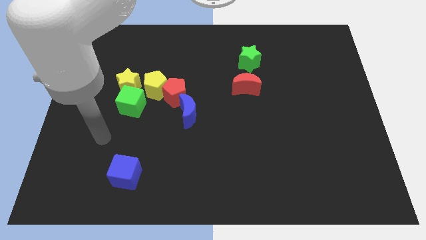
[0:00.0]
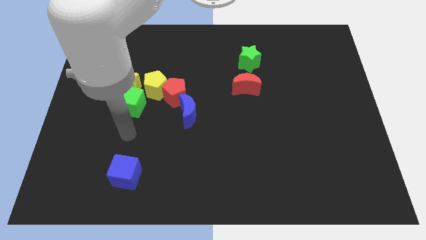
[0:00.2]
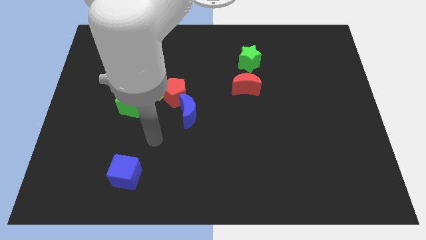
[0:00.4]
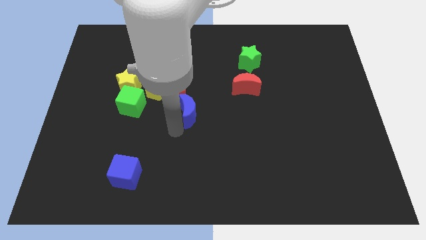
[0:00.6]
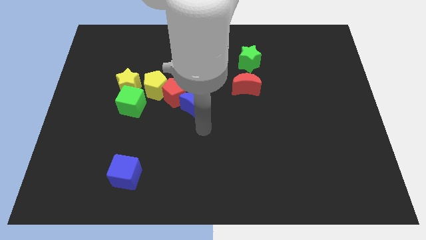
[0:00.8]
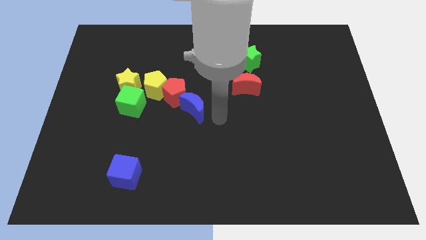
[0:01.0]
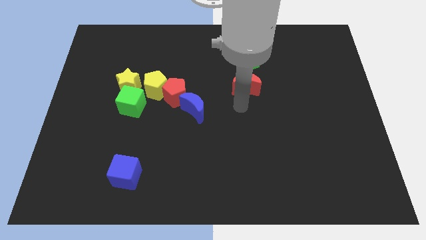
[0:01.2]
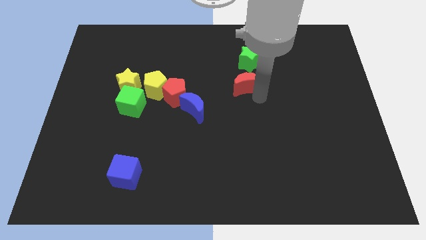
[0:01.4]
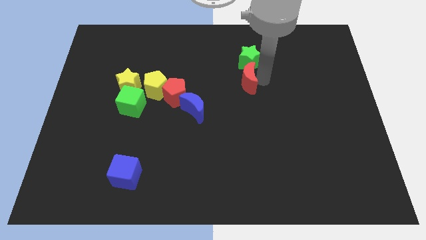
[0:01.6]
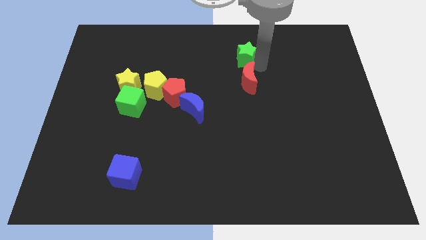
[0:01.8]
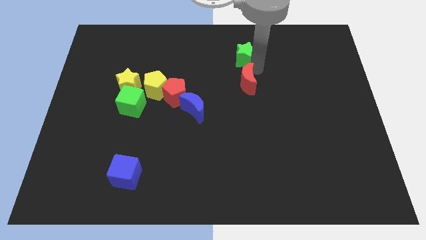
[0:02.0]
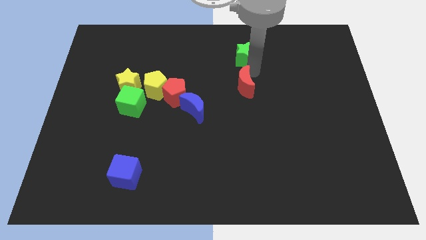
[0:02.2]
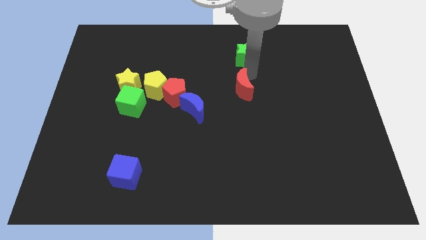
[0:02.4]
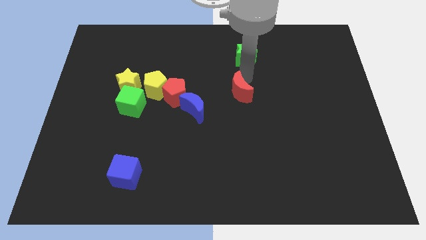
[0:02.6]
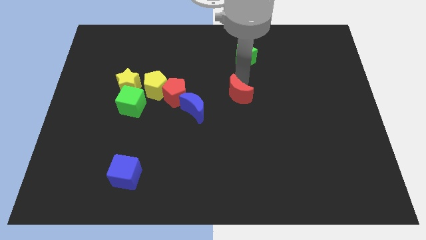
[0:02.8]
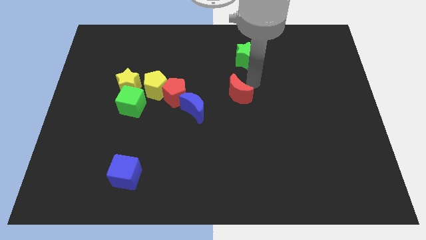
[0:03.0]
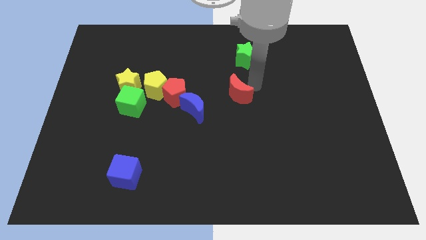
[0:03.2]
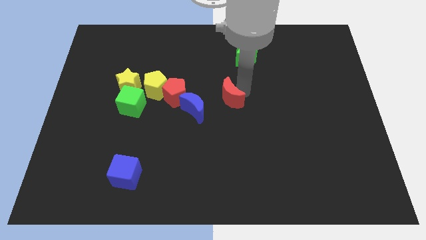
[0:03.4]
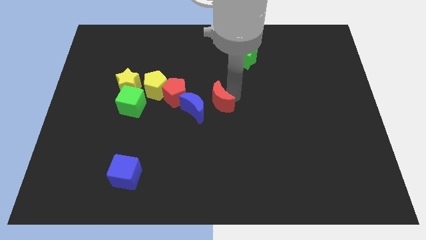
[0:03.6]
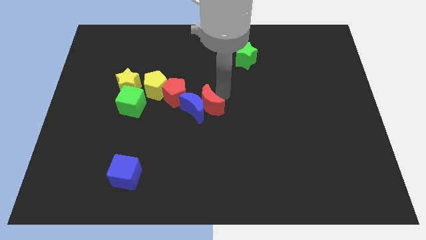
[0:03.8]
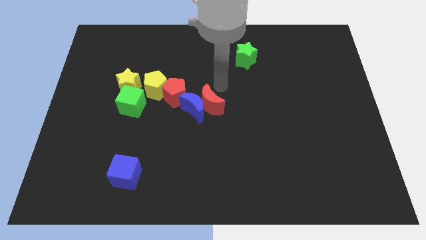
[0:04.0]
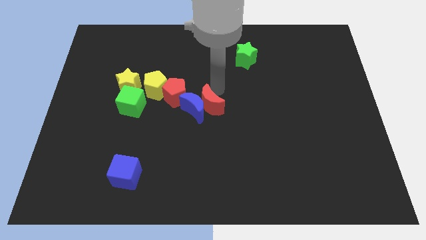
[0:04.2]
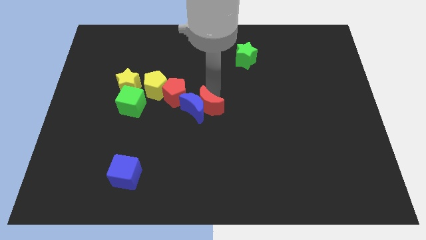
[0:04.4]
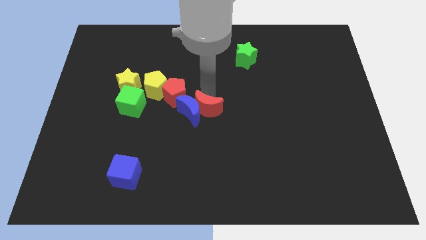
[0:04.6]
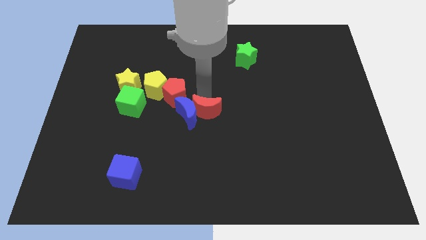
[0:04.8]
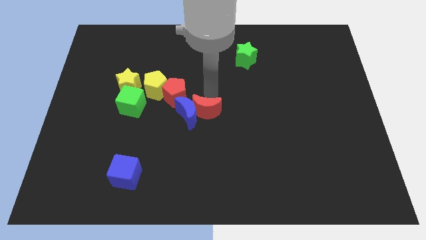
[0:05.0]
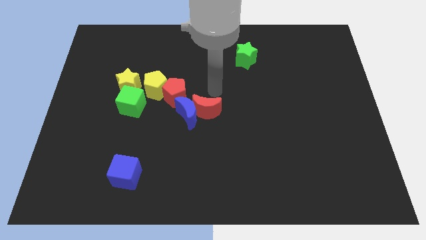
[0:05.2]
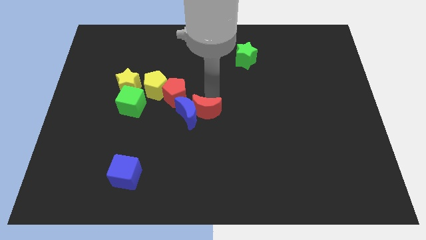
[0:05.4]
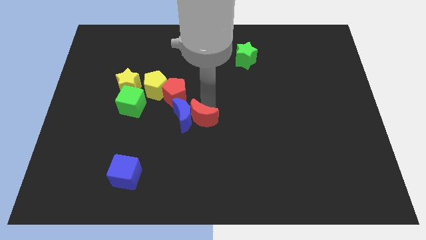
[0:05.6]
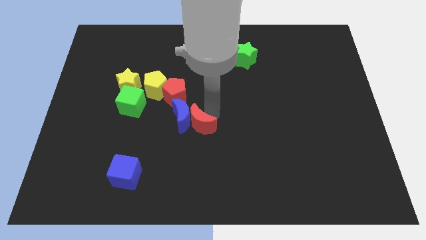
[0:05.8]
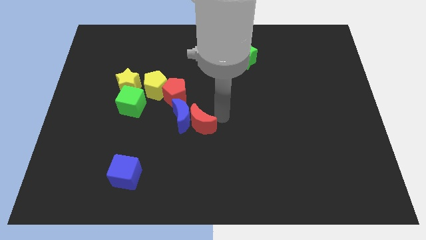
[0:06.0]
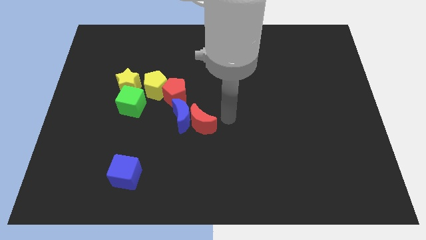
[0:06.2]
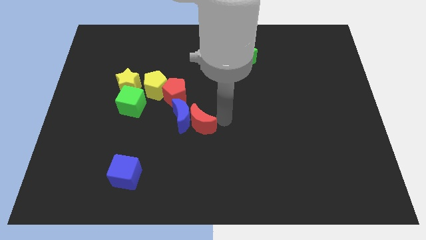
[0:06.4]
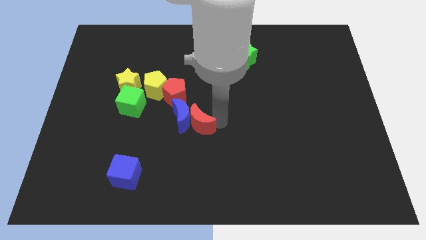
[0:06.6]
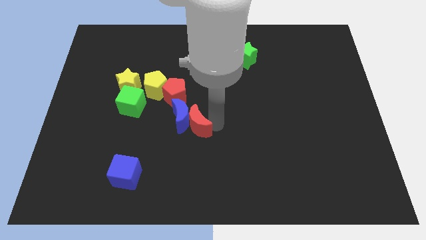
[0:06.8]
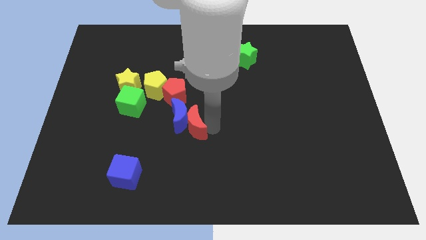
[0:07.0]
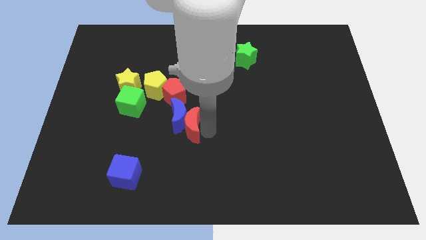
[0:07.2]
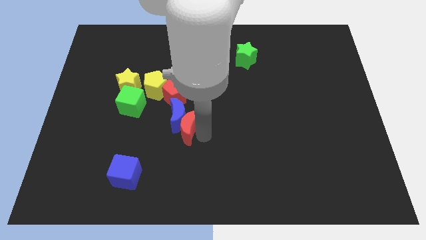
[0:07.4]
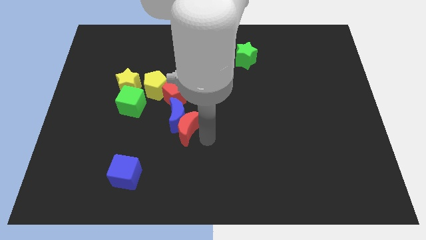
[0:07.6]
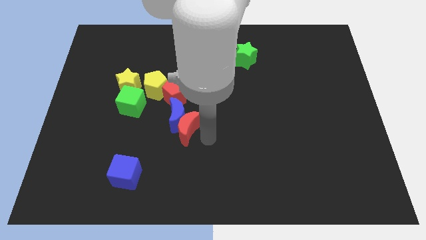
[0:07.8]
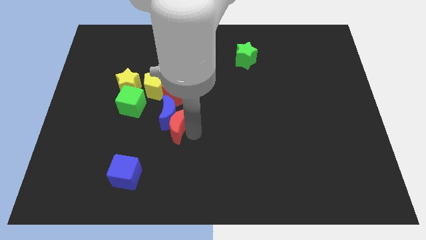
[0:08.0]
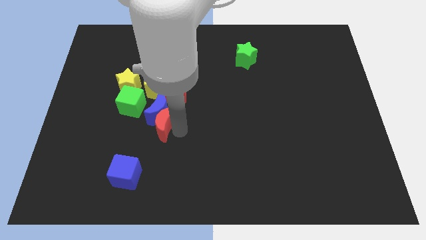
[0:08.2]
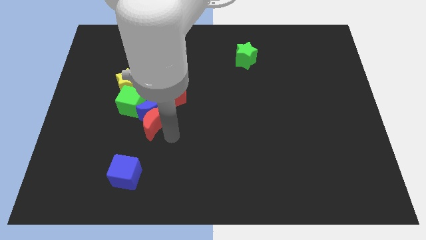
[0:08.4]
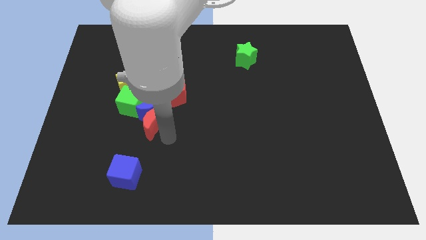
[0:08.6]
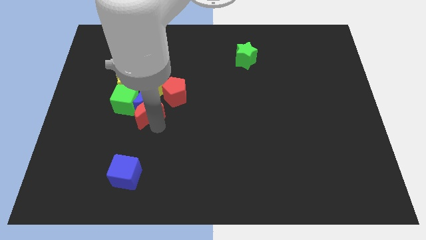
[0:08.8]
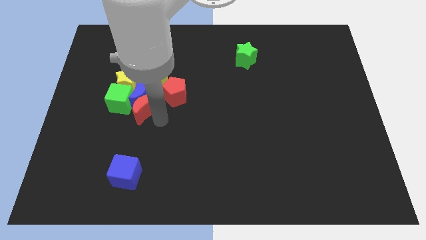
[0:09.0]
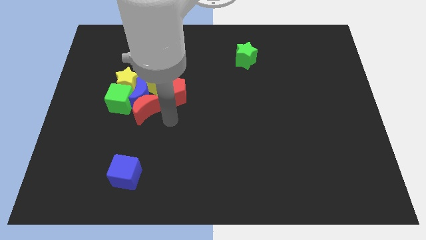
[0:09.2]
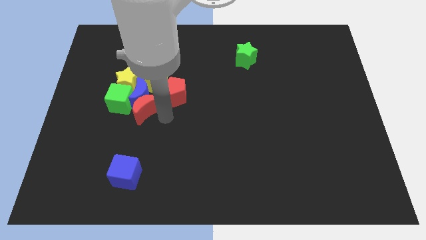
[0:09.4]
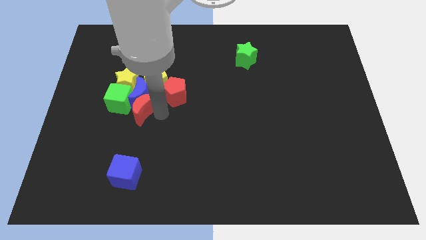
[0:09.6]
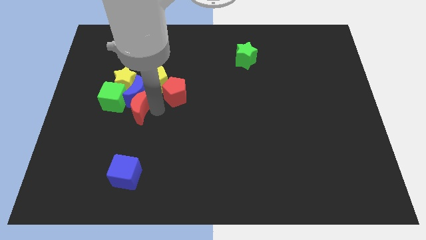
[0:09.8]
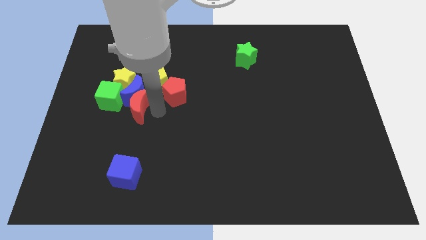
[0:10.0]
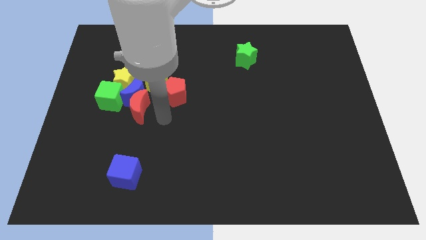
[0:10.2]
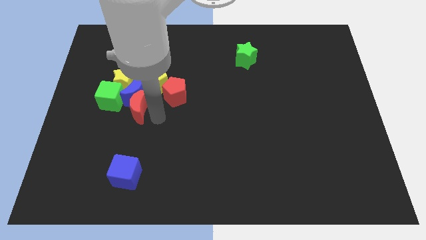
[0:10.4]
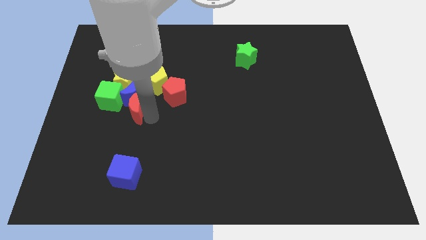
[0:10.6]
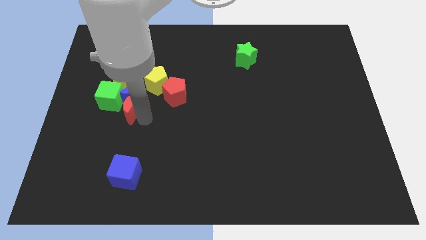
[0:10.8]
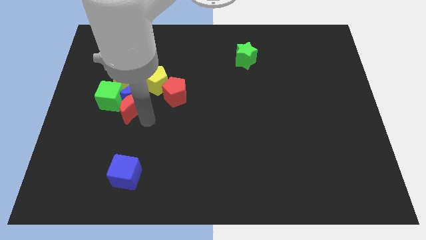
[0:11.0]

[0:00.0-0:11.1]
push the red moon close to the green cube

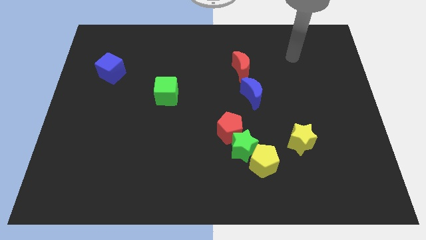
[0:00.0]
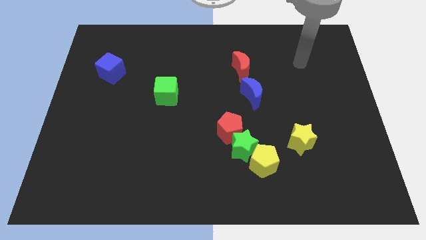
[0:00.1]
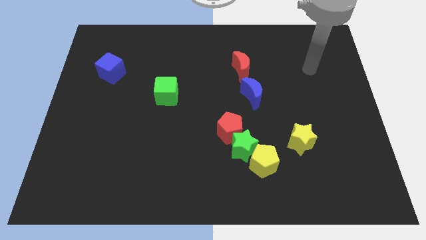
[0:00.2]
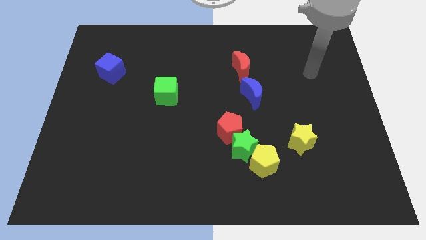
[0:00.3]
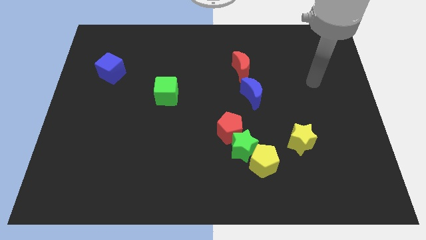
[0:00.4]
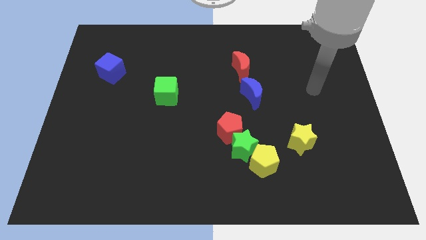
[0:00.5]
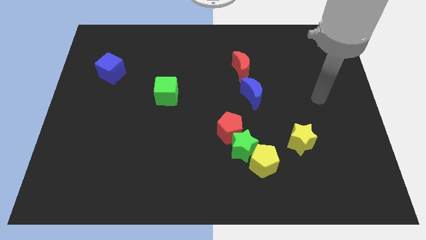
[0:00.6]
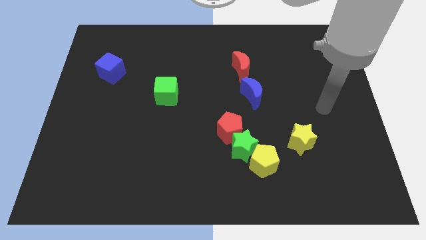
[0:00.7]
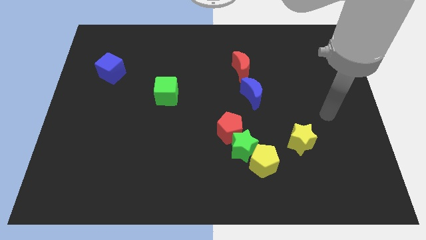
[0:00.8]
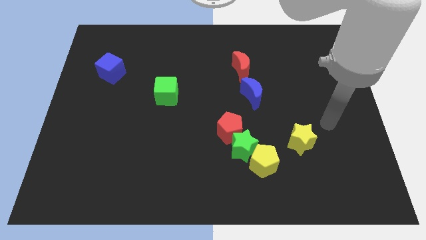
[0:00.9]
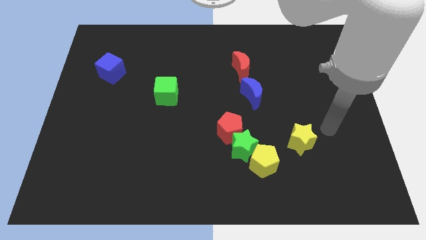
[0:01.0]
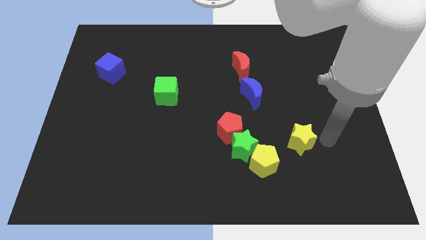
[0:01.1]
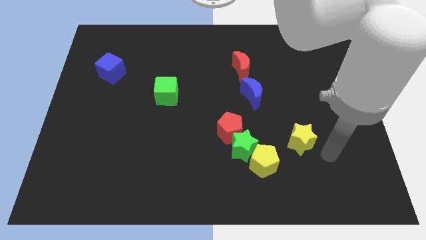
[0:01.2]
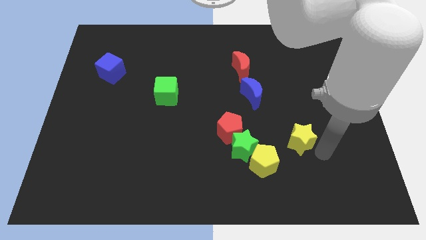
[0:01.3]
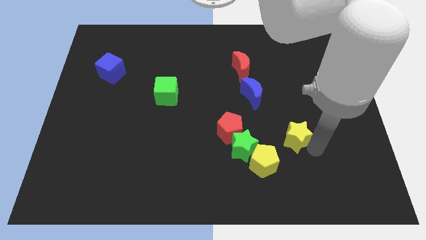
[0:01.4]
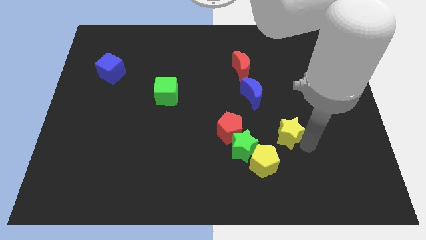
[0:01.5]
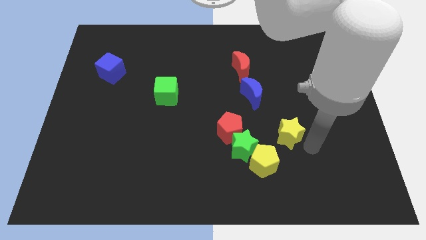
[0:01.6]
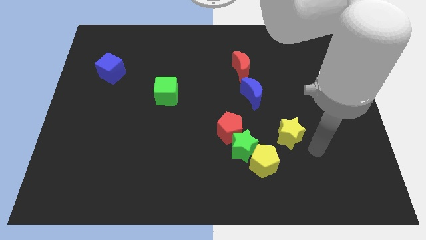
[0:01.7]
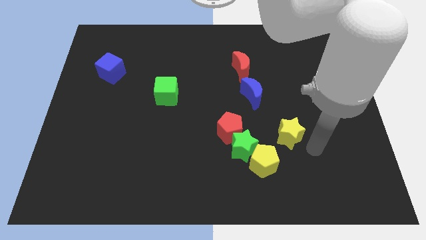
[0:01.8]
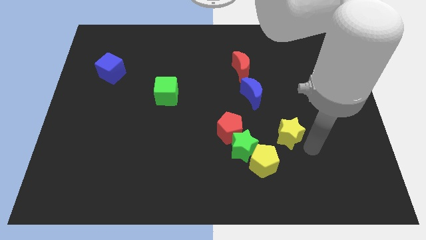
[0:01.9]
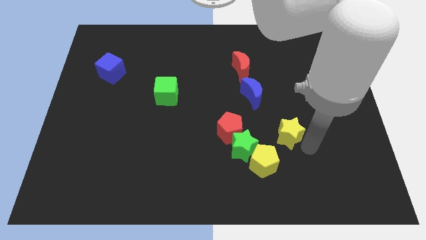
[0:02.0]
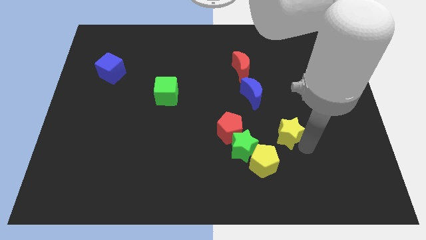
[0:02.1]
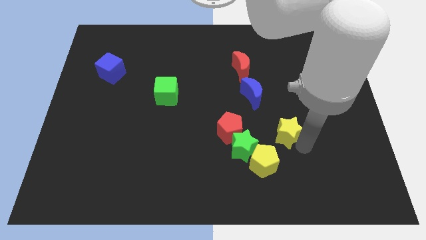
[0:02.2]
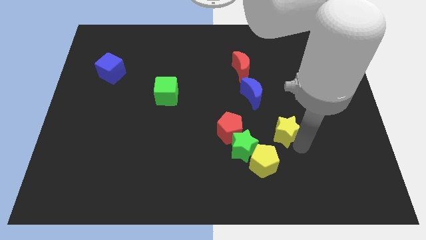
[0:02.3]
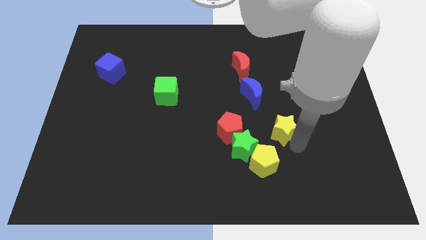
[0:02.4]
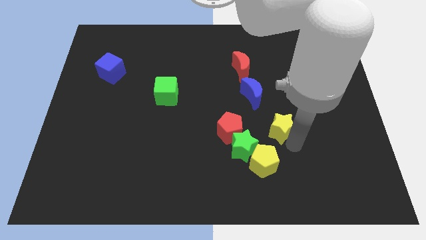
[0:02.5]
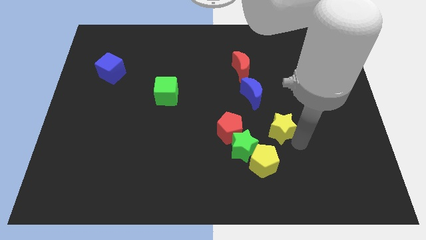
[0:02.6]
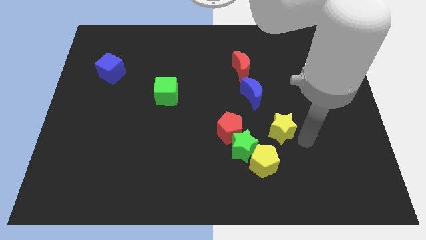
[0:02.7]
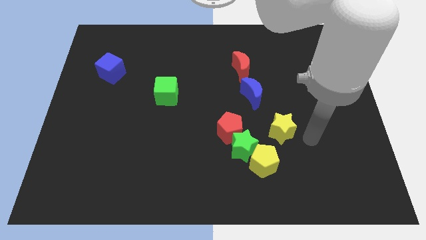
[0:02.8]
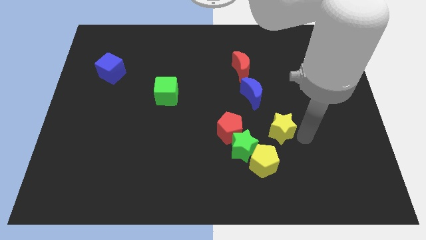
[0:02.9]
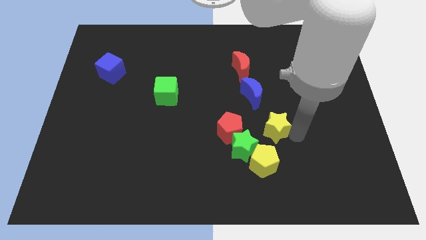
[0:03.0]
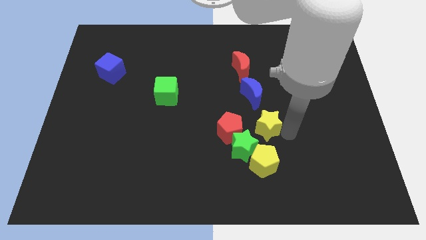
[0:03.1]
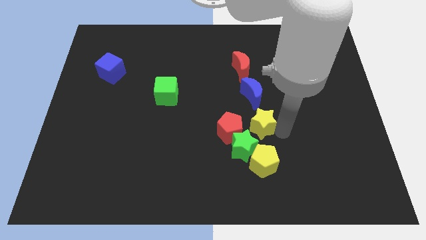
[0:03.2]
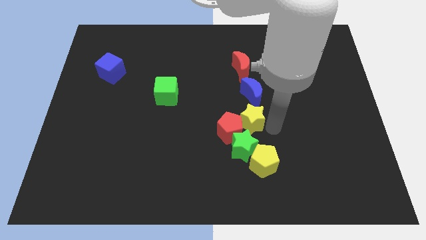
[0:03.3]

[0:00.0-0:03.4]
slide the yellow star close to the red pentagon
